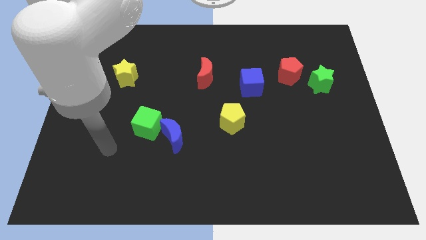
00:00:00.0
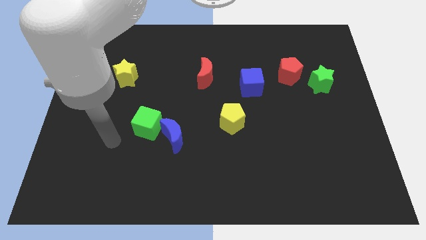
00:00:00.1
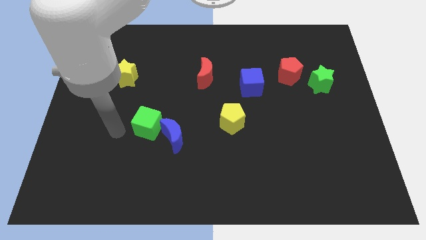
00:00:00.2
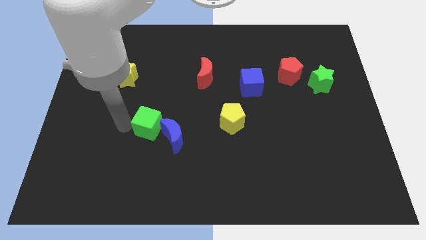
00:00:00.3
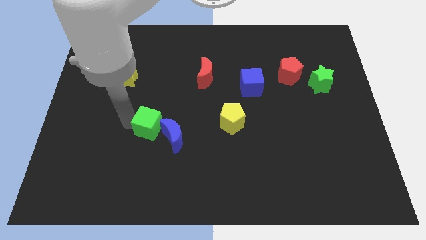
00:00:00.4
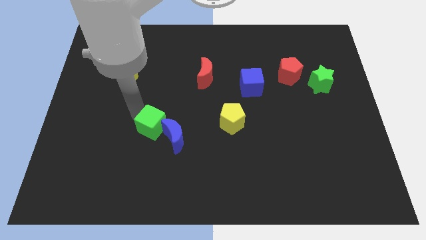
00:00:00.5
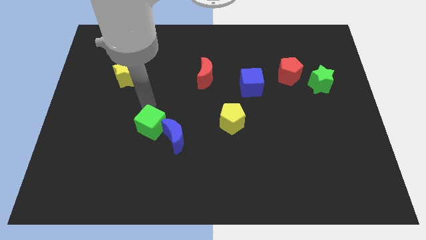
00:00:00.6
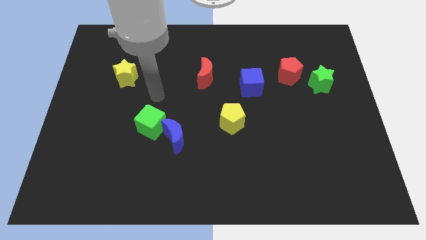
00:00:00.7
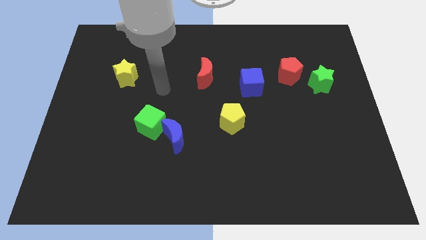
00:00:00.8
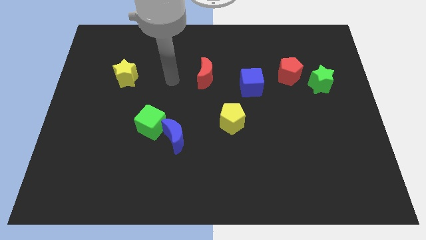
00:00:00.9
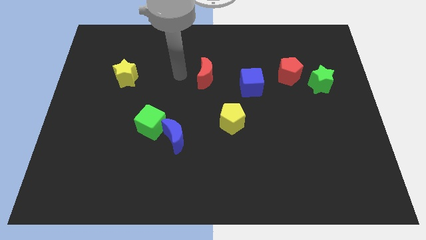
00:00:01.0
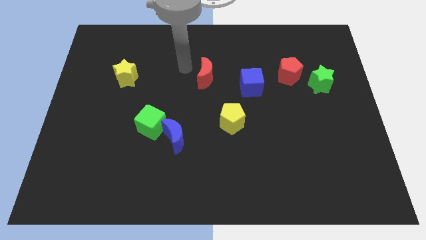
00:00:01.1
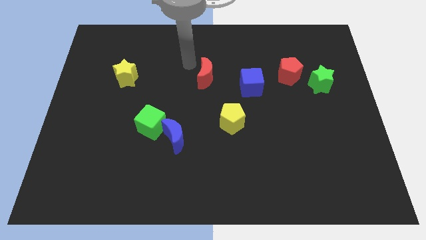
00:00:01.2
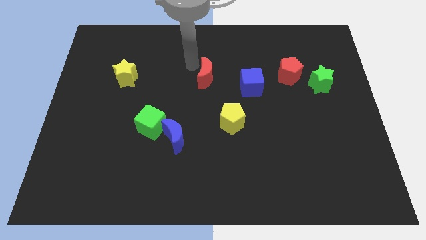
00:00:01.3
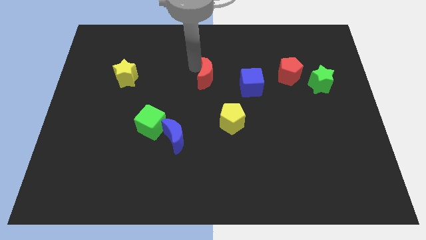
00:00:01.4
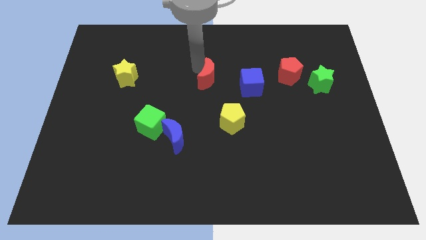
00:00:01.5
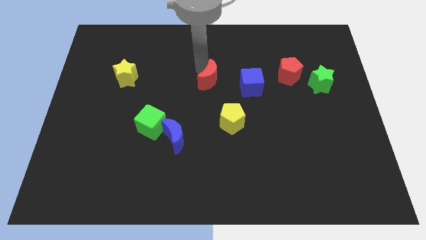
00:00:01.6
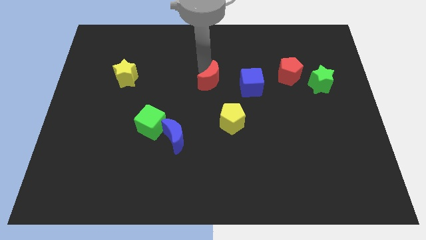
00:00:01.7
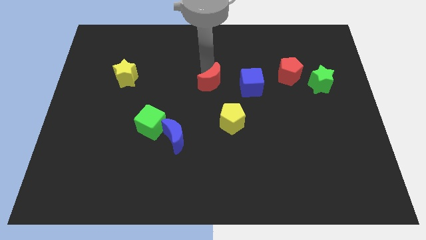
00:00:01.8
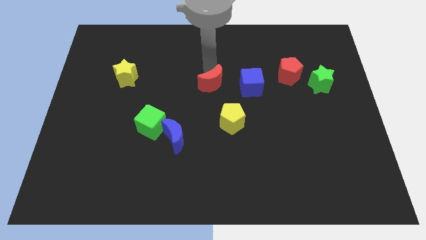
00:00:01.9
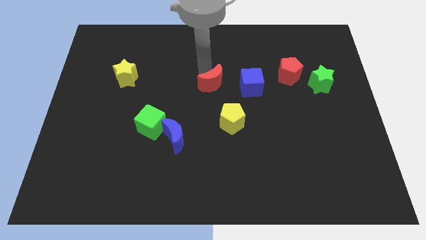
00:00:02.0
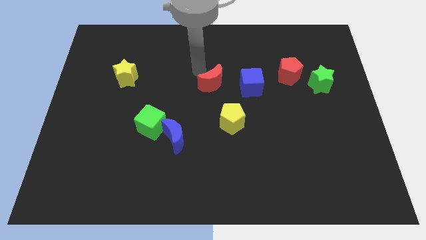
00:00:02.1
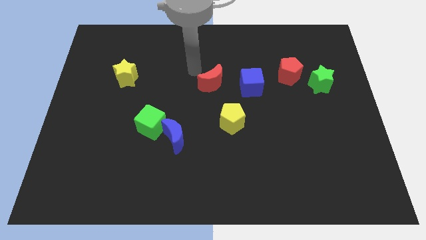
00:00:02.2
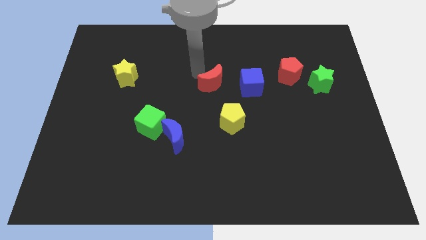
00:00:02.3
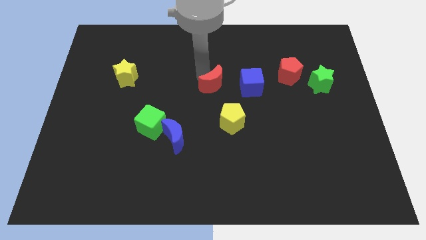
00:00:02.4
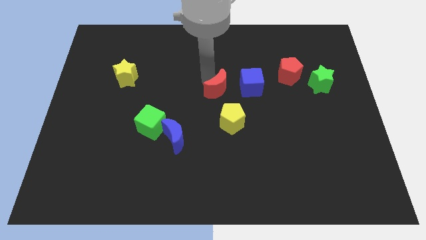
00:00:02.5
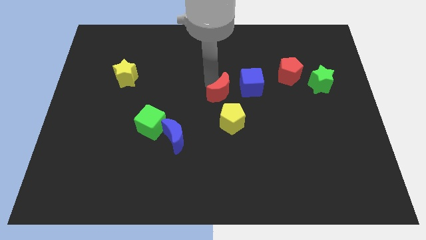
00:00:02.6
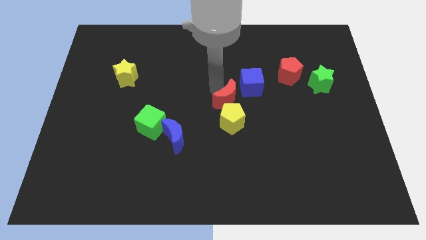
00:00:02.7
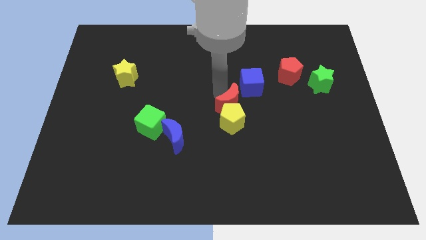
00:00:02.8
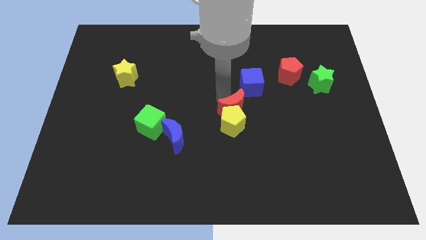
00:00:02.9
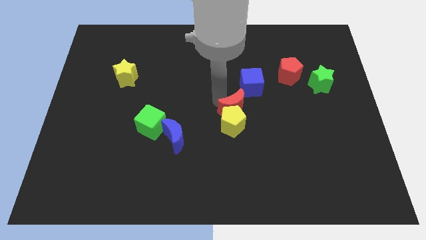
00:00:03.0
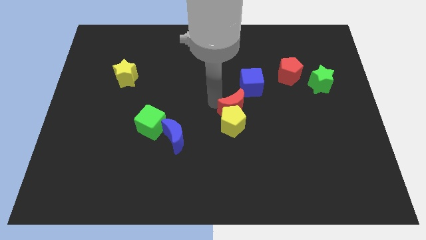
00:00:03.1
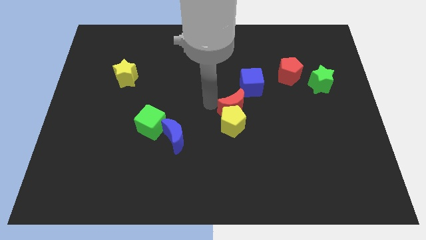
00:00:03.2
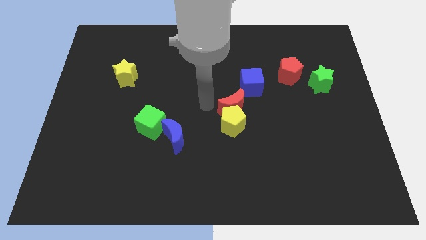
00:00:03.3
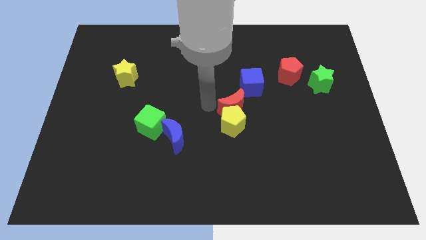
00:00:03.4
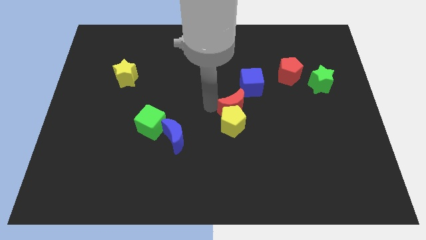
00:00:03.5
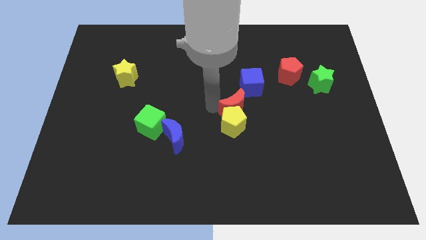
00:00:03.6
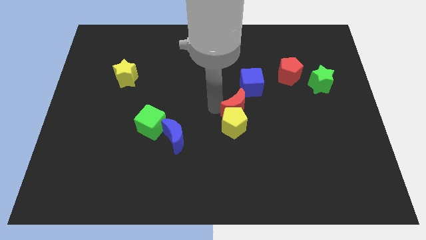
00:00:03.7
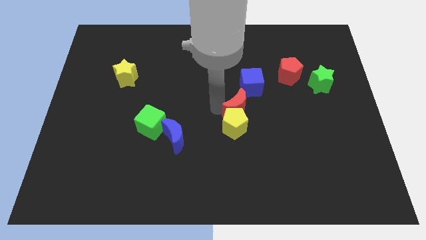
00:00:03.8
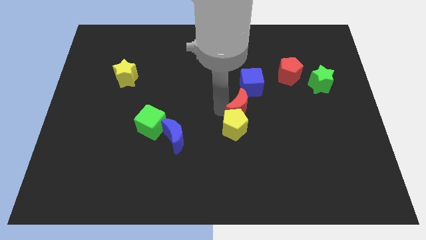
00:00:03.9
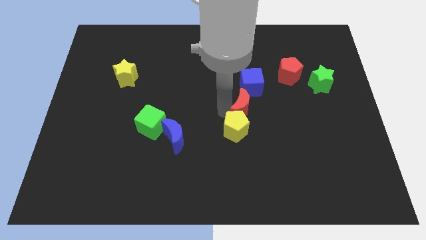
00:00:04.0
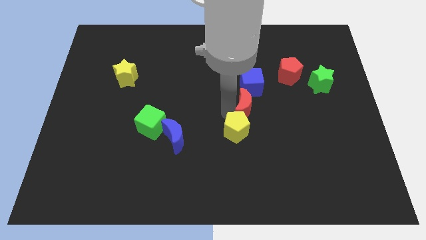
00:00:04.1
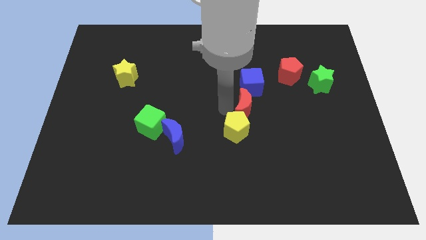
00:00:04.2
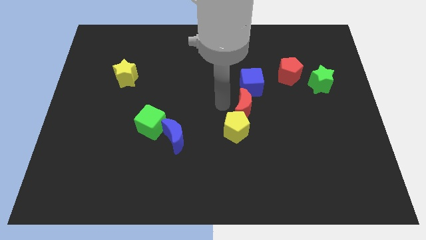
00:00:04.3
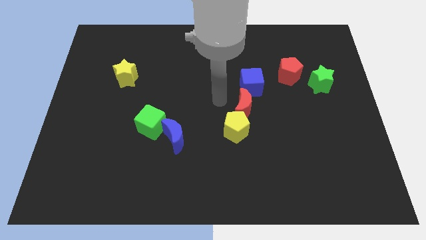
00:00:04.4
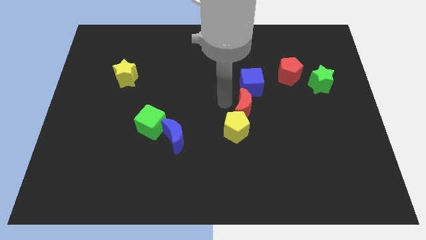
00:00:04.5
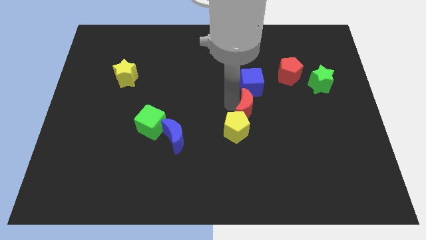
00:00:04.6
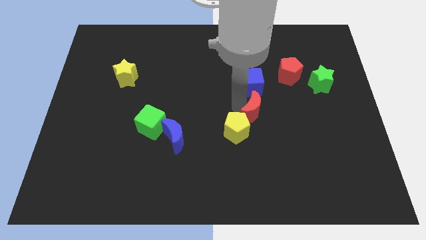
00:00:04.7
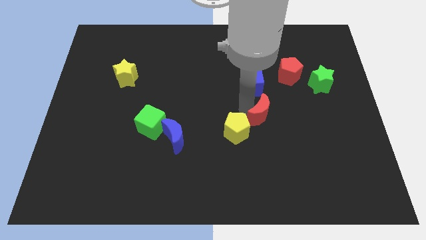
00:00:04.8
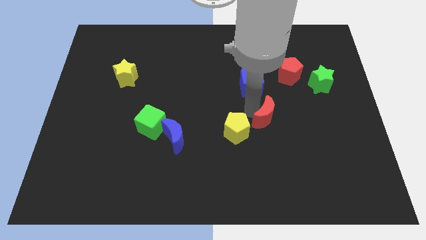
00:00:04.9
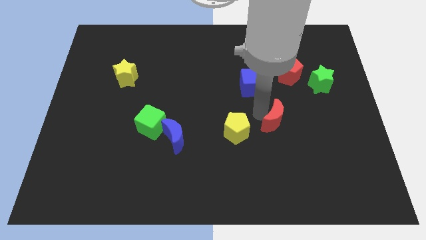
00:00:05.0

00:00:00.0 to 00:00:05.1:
push the red moon down and to the right

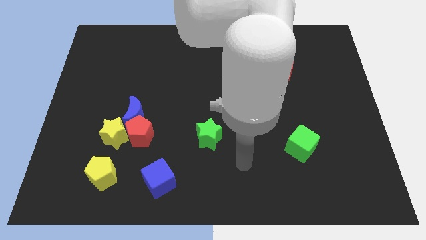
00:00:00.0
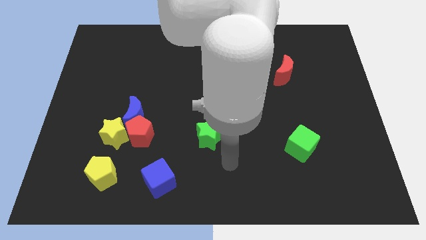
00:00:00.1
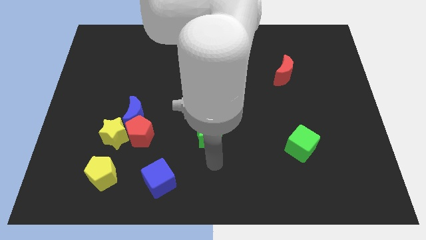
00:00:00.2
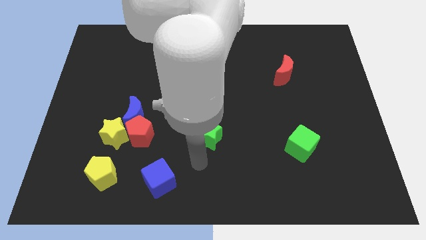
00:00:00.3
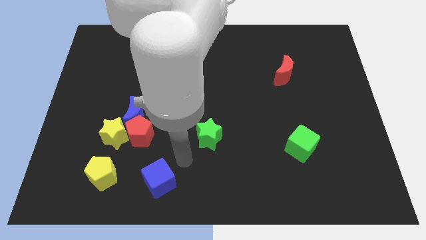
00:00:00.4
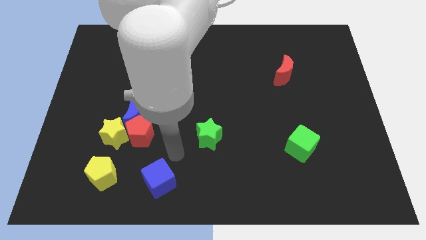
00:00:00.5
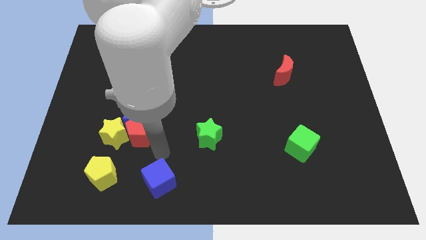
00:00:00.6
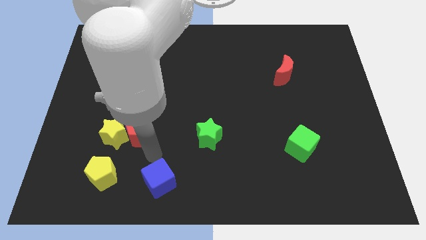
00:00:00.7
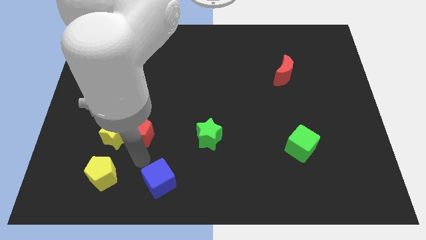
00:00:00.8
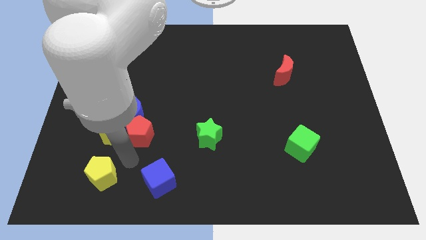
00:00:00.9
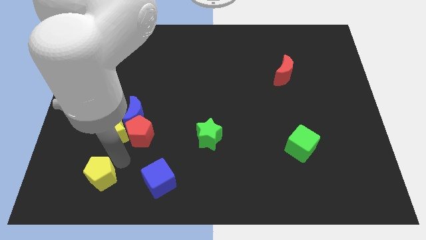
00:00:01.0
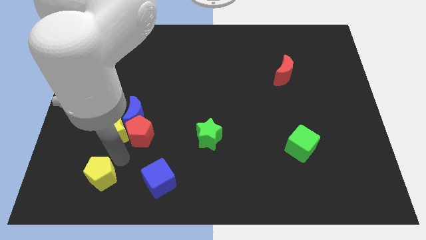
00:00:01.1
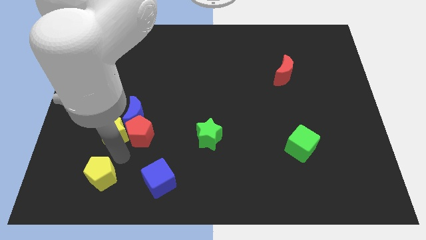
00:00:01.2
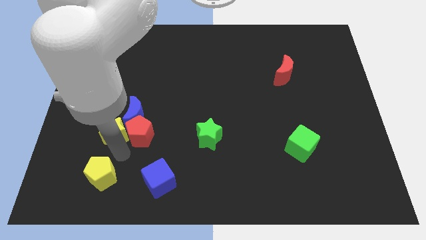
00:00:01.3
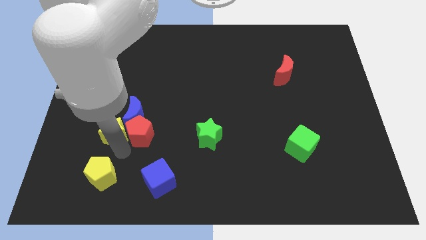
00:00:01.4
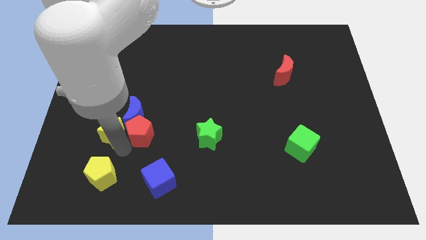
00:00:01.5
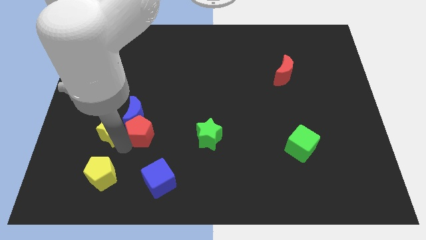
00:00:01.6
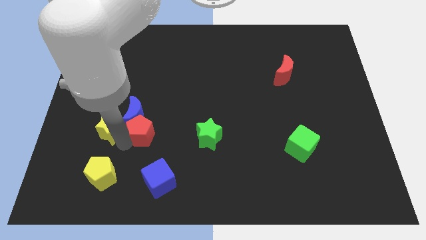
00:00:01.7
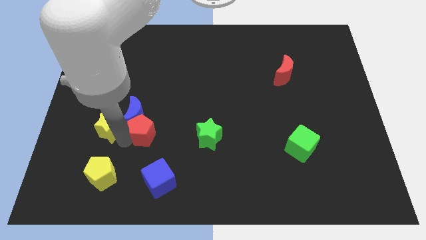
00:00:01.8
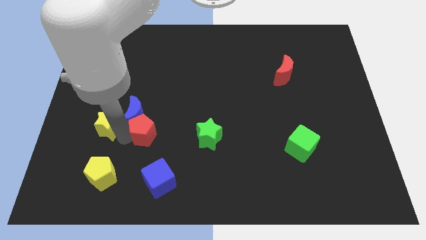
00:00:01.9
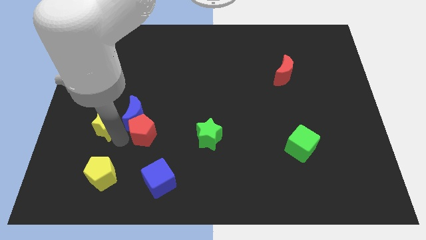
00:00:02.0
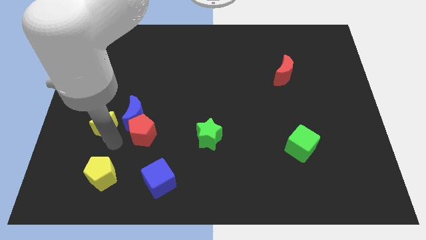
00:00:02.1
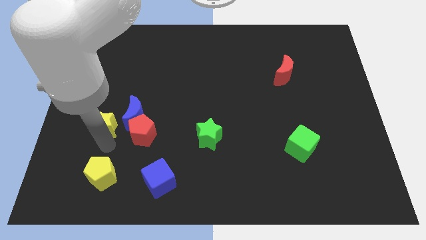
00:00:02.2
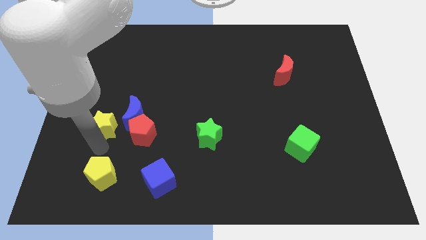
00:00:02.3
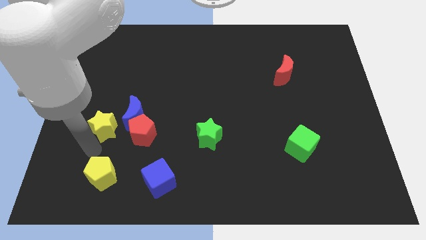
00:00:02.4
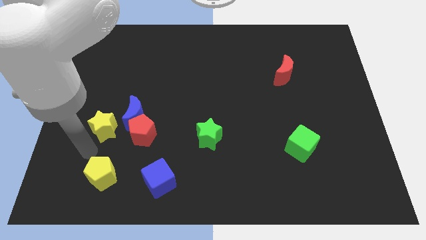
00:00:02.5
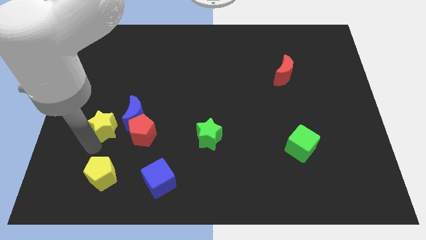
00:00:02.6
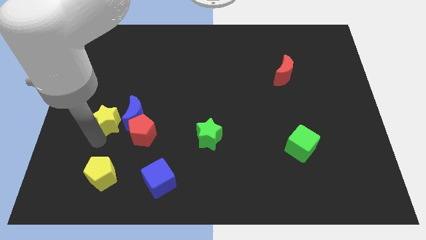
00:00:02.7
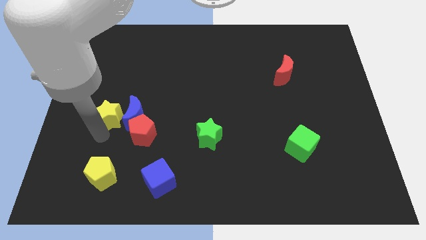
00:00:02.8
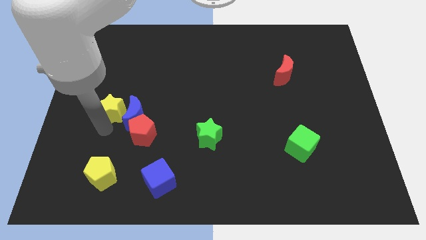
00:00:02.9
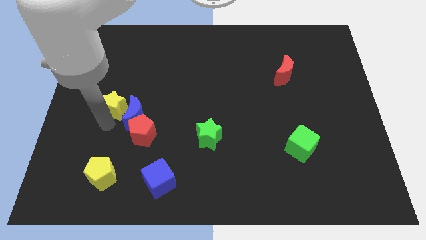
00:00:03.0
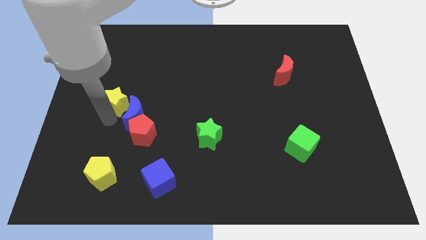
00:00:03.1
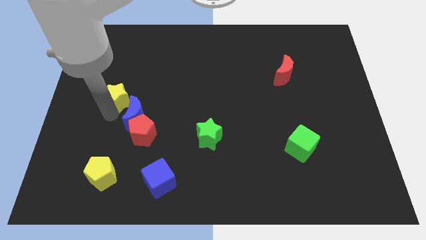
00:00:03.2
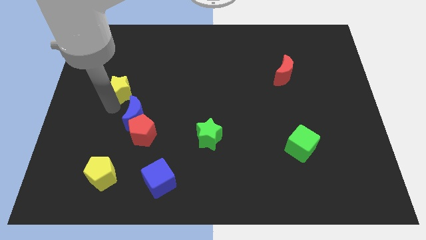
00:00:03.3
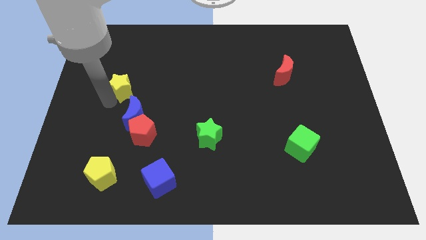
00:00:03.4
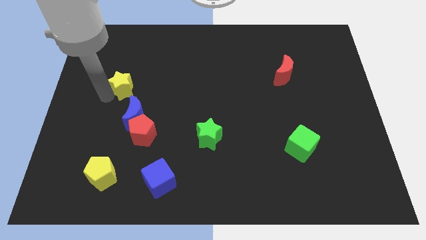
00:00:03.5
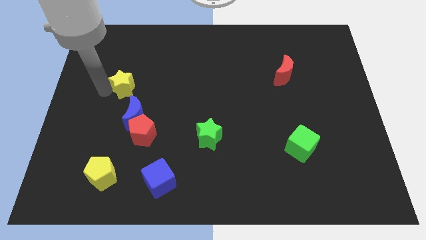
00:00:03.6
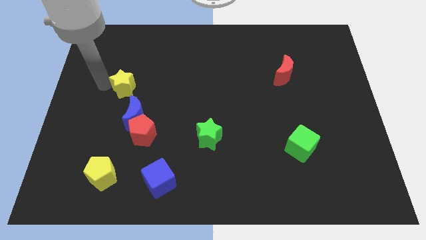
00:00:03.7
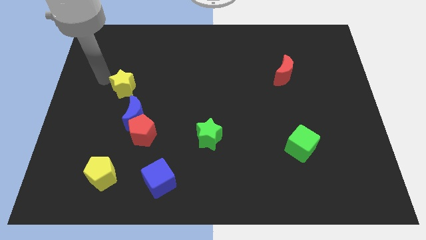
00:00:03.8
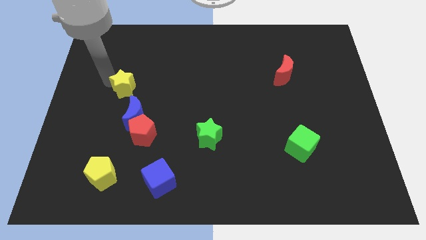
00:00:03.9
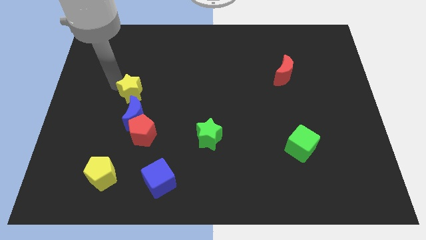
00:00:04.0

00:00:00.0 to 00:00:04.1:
slightly move the yellow star diagonally up and to the right
